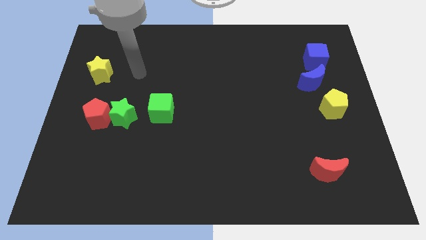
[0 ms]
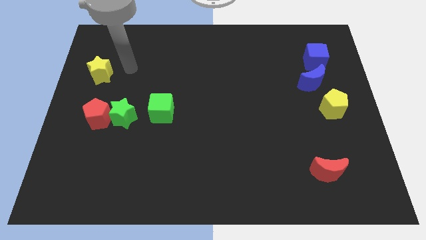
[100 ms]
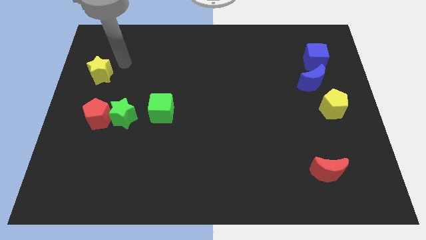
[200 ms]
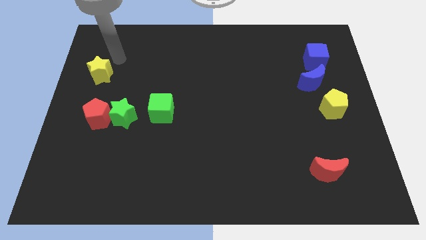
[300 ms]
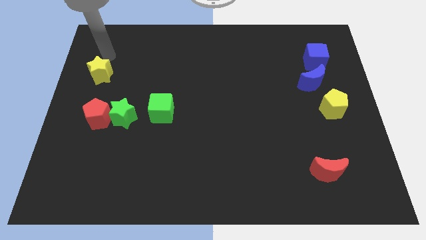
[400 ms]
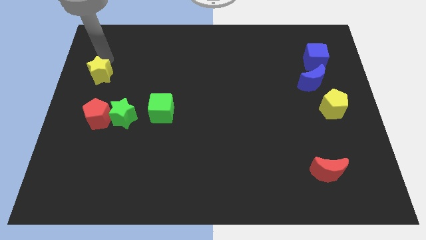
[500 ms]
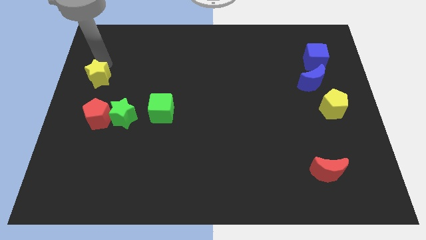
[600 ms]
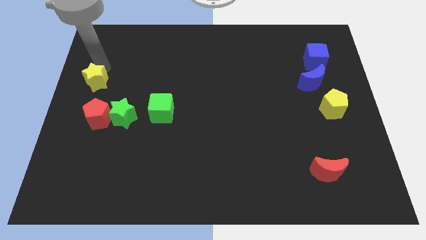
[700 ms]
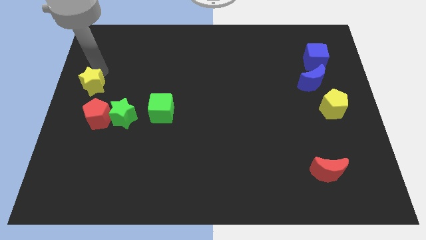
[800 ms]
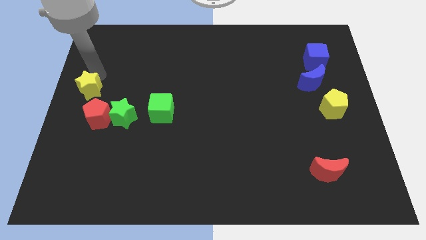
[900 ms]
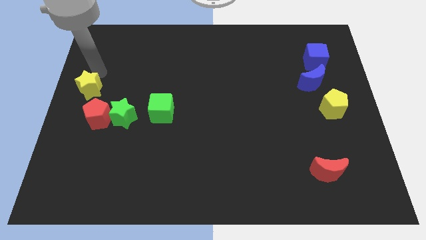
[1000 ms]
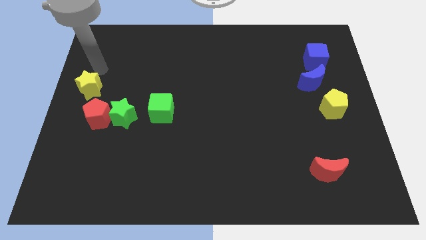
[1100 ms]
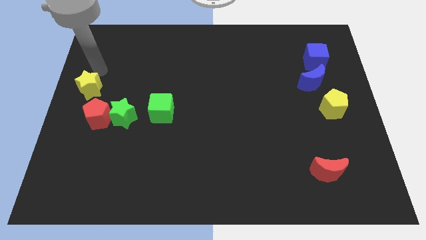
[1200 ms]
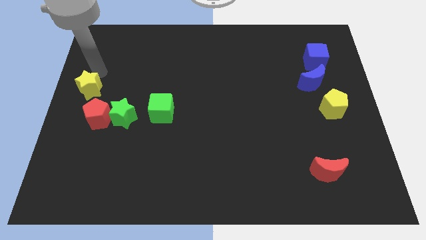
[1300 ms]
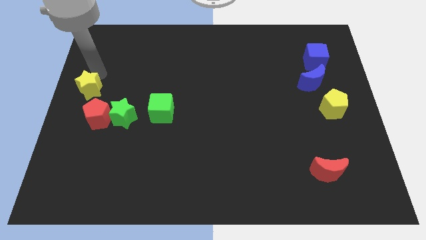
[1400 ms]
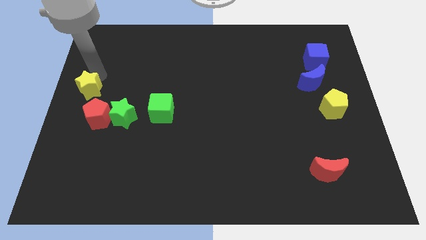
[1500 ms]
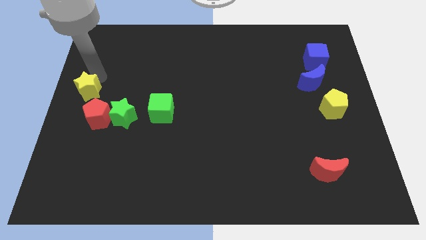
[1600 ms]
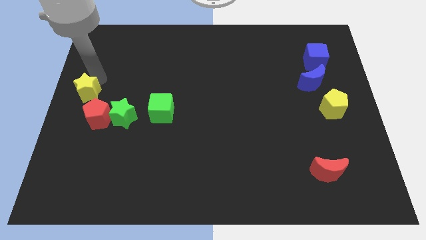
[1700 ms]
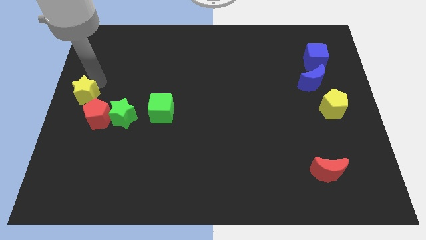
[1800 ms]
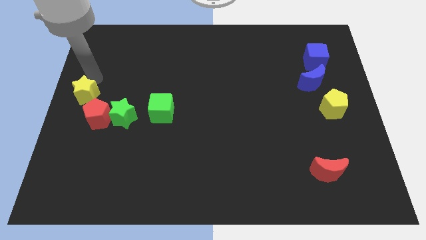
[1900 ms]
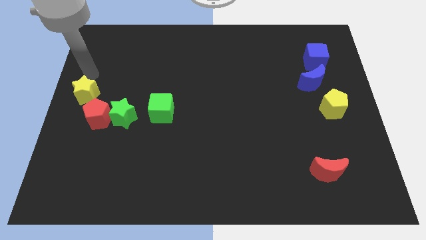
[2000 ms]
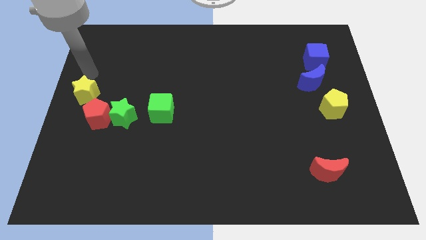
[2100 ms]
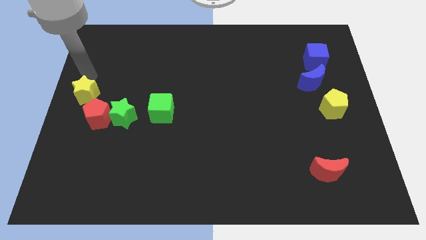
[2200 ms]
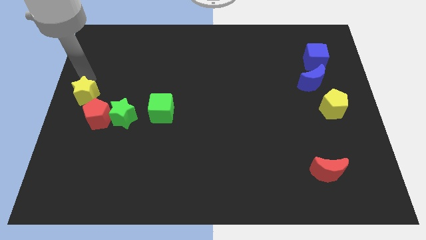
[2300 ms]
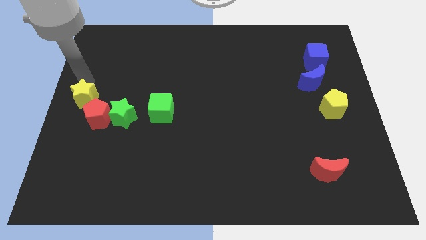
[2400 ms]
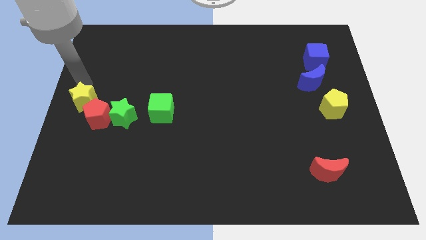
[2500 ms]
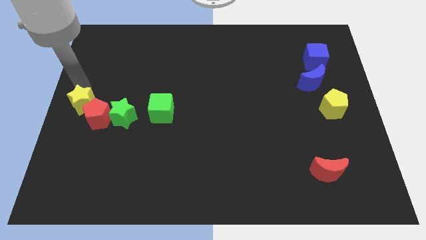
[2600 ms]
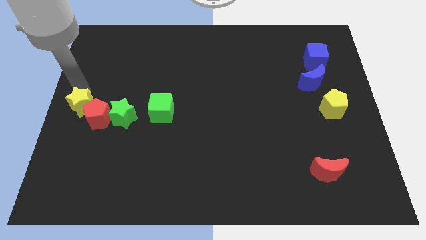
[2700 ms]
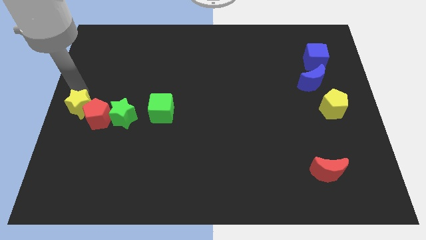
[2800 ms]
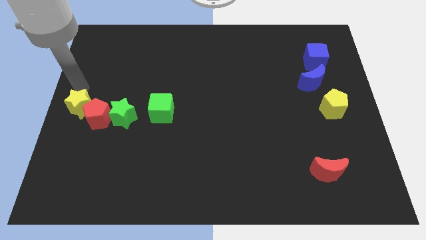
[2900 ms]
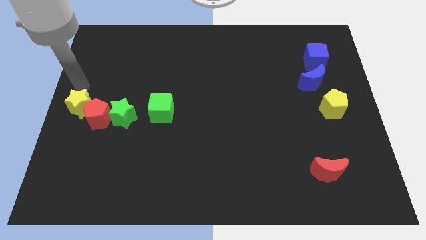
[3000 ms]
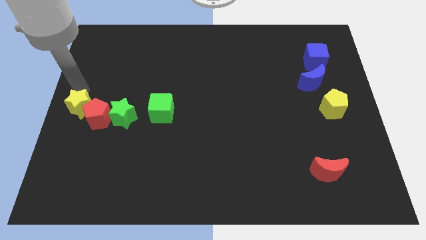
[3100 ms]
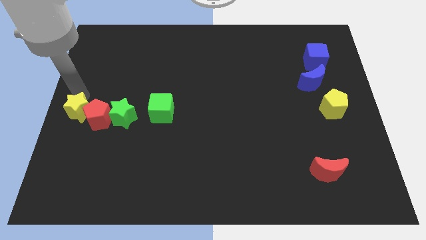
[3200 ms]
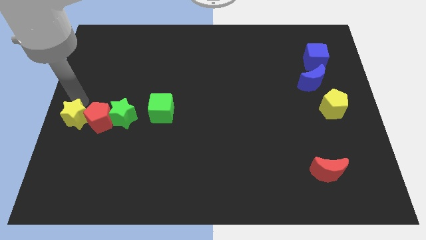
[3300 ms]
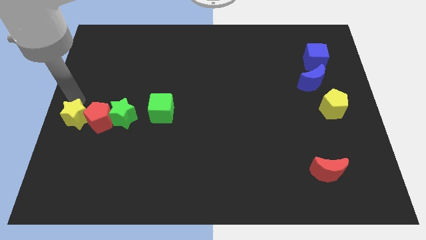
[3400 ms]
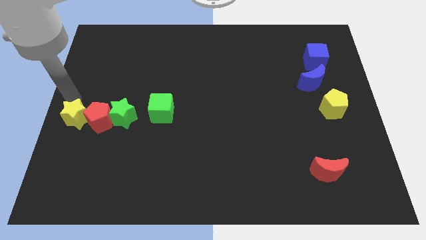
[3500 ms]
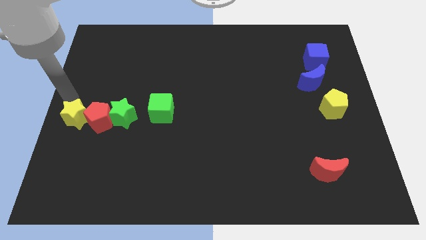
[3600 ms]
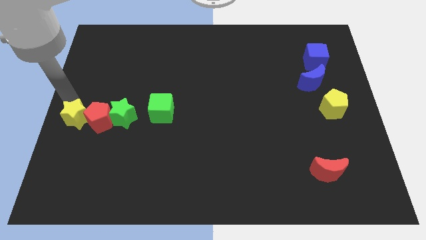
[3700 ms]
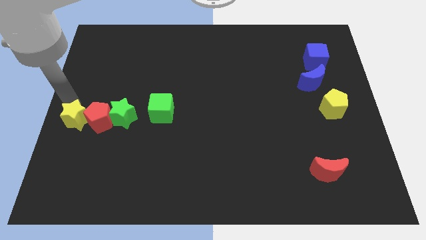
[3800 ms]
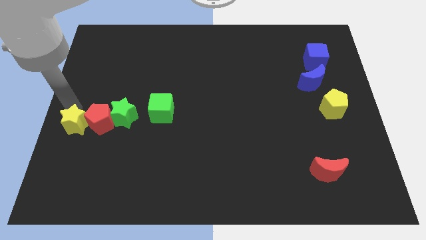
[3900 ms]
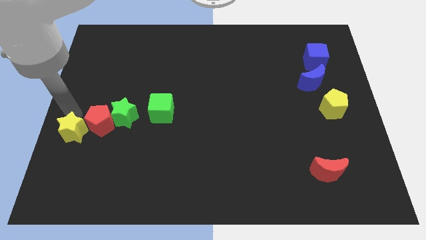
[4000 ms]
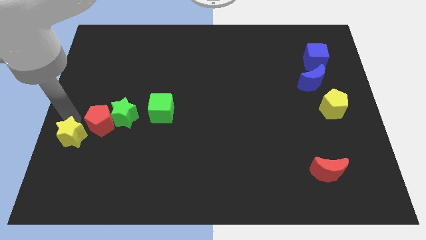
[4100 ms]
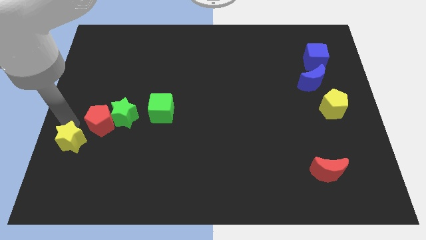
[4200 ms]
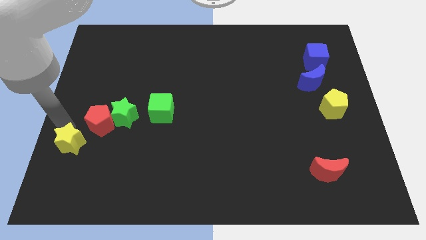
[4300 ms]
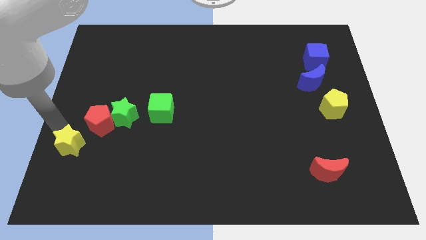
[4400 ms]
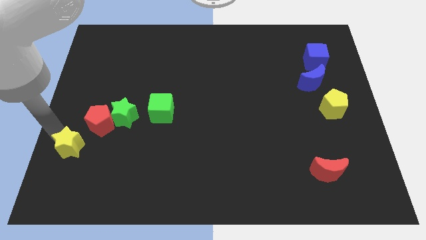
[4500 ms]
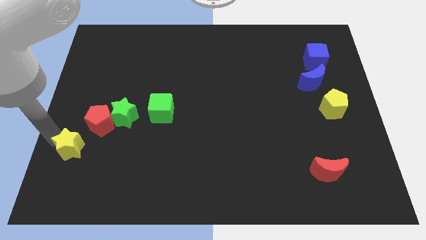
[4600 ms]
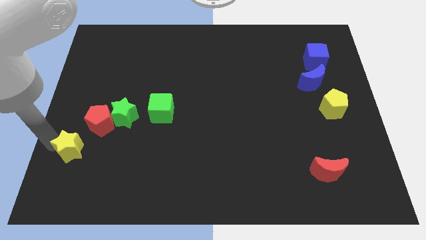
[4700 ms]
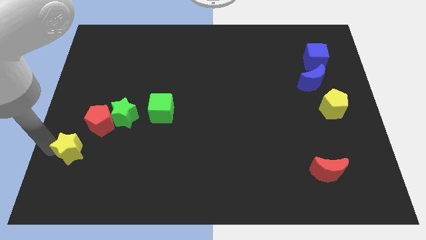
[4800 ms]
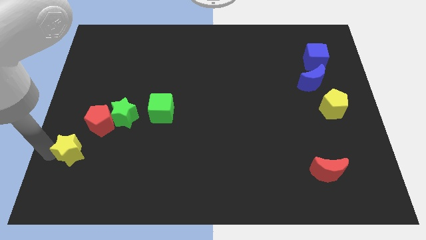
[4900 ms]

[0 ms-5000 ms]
push the yellow star to the bottom of the red pentagon

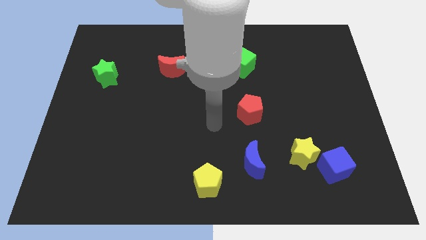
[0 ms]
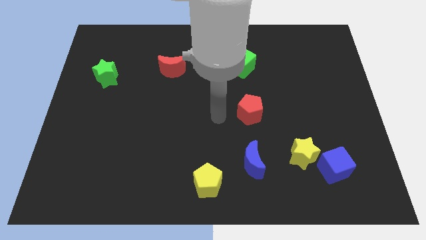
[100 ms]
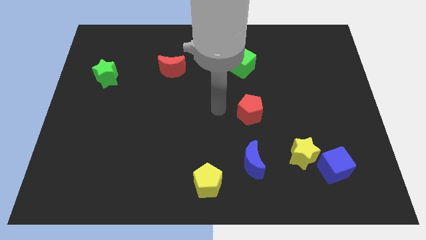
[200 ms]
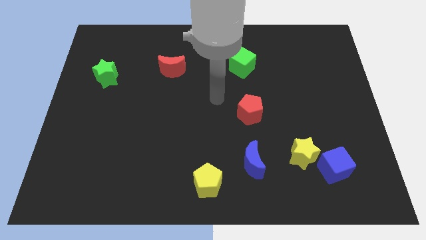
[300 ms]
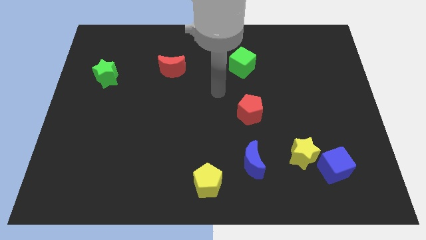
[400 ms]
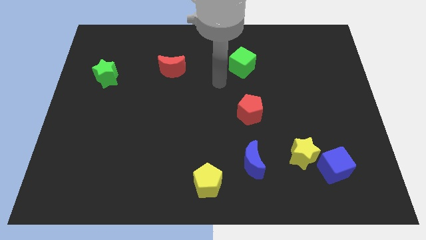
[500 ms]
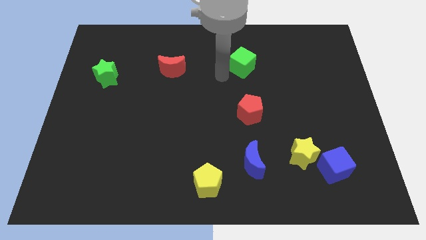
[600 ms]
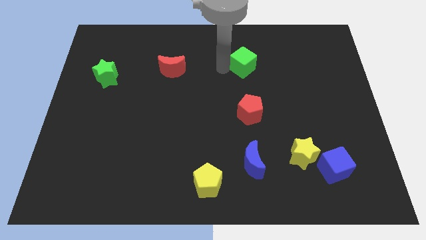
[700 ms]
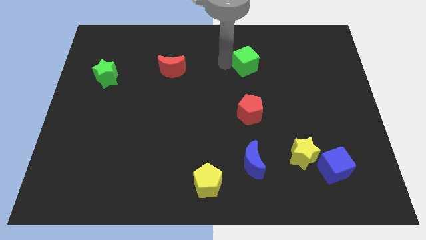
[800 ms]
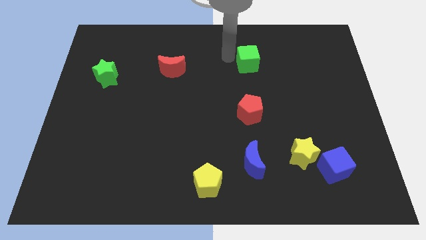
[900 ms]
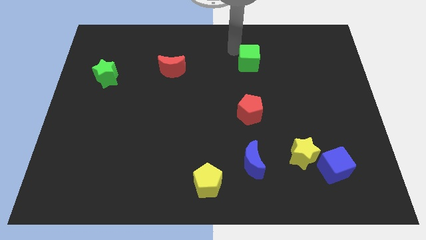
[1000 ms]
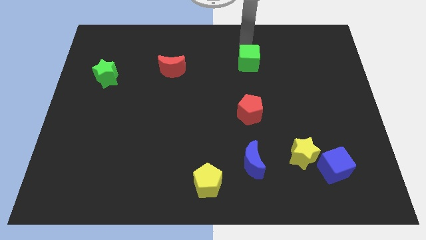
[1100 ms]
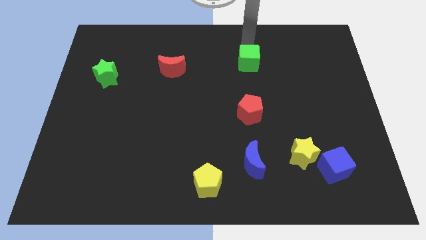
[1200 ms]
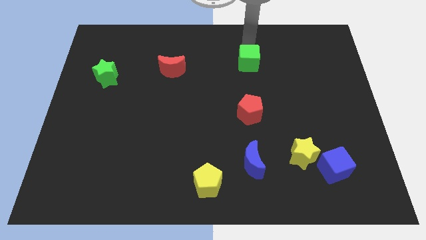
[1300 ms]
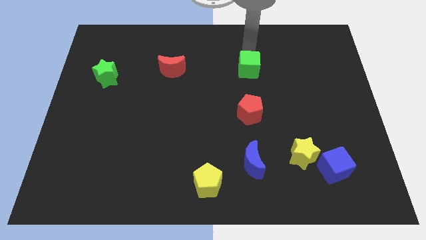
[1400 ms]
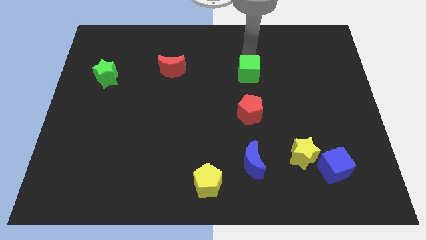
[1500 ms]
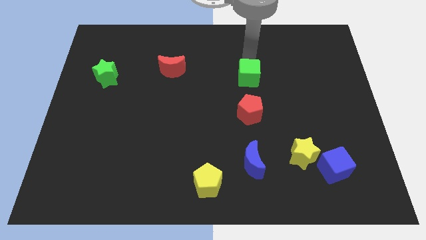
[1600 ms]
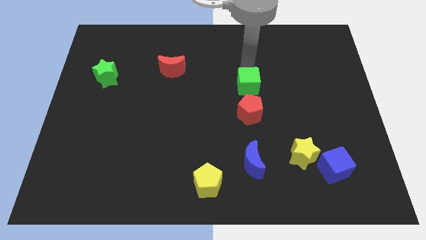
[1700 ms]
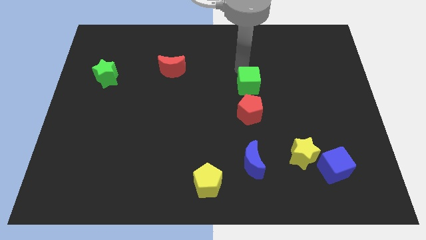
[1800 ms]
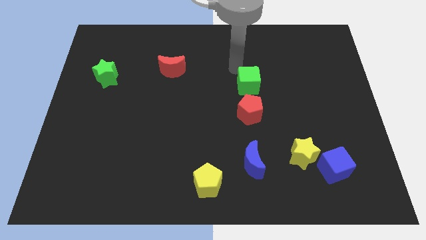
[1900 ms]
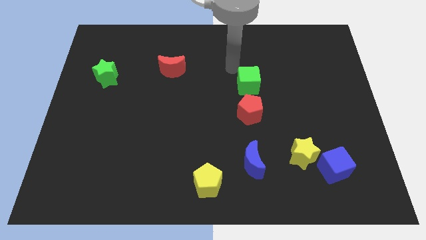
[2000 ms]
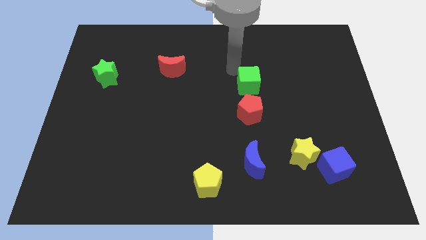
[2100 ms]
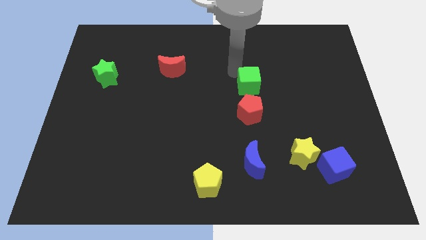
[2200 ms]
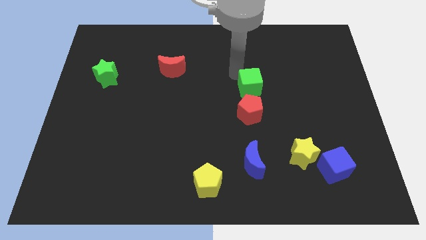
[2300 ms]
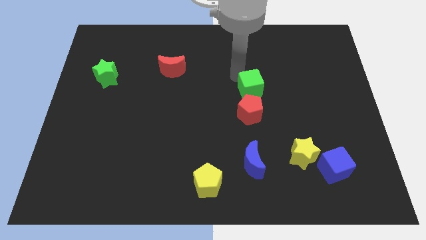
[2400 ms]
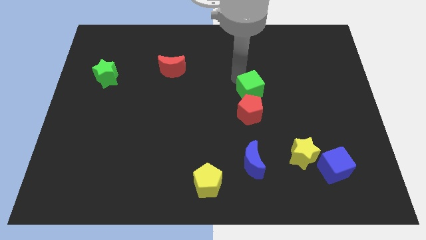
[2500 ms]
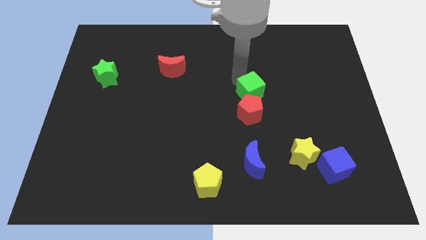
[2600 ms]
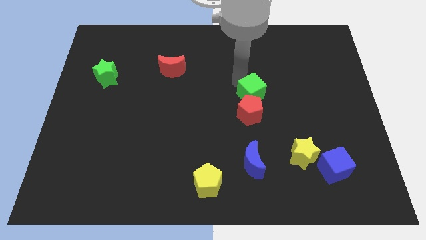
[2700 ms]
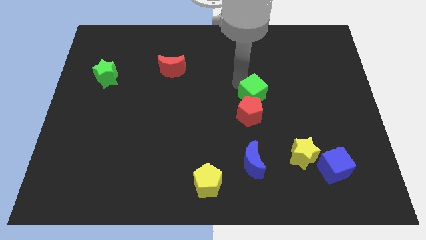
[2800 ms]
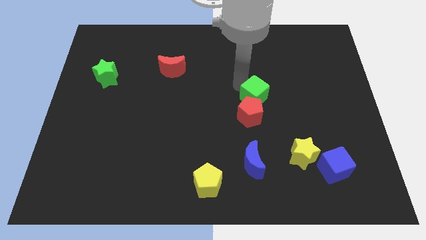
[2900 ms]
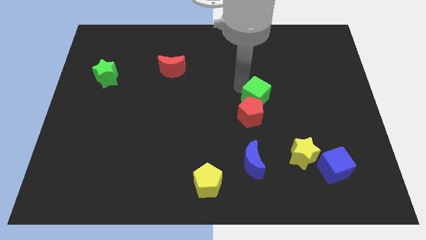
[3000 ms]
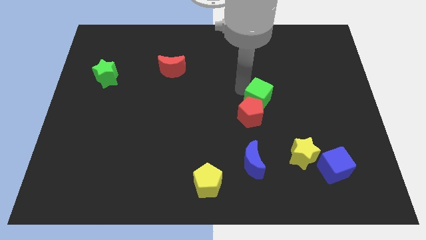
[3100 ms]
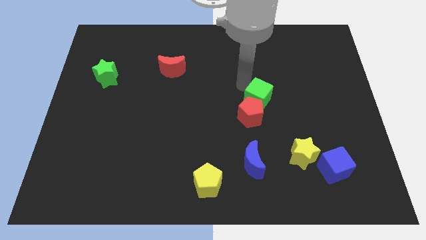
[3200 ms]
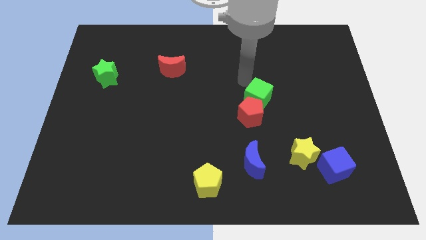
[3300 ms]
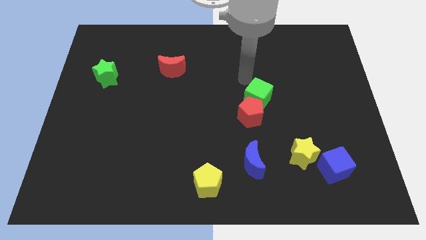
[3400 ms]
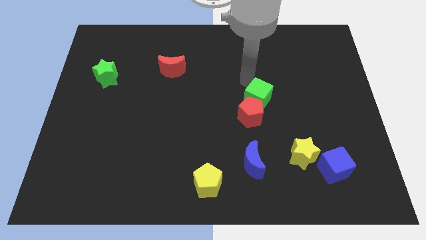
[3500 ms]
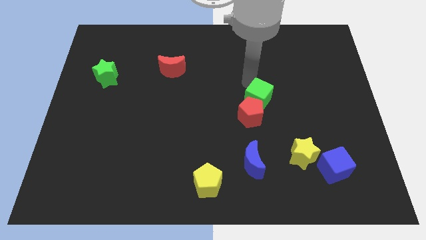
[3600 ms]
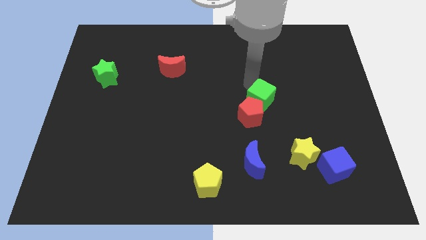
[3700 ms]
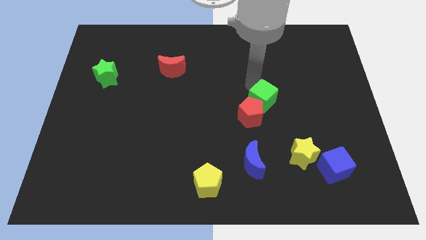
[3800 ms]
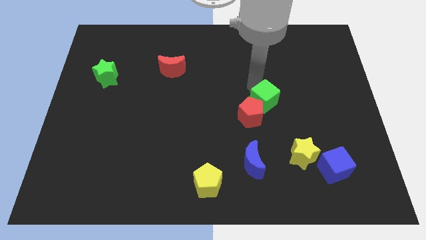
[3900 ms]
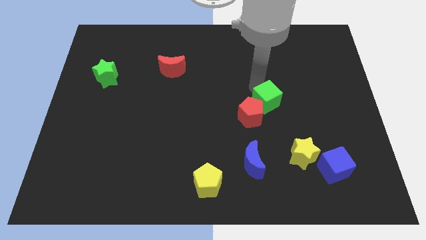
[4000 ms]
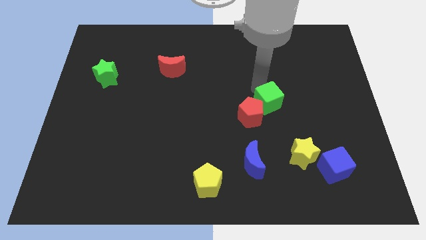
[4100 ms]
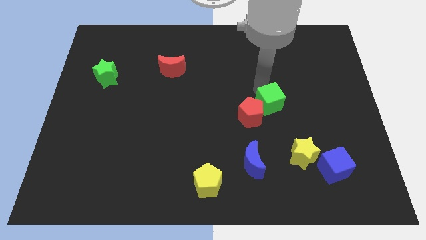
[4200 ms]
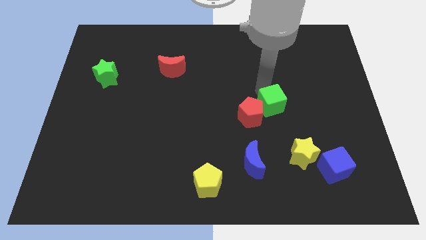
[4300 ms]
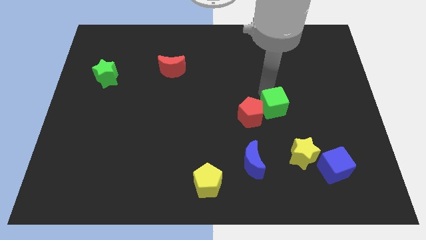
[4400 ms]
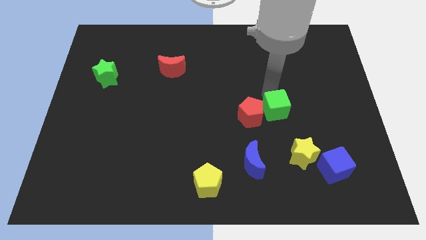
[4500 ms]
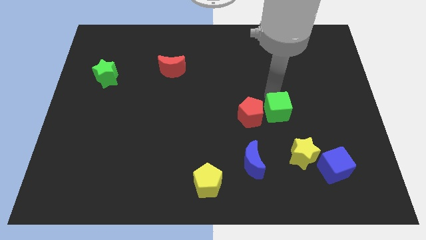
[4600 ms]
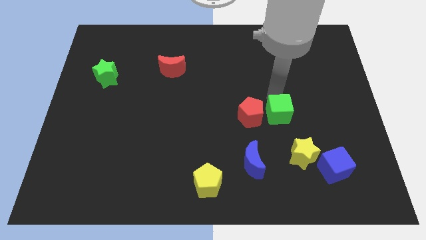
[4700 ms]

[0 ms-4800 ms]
put the green cube diagonally down and to the right of the red pentagon
